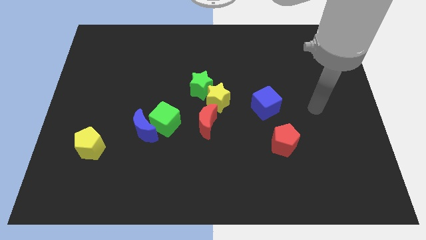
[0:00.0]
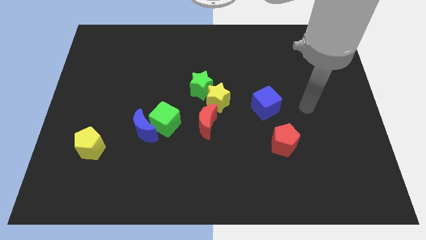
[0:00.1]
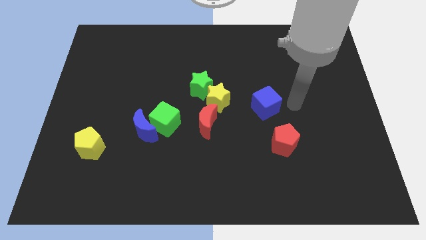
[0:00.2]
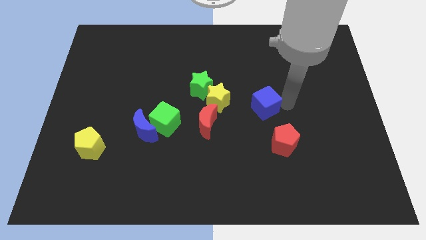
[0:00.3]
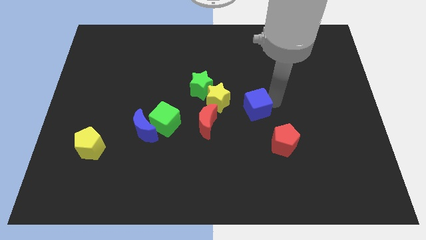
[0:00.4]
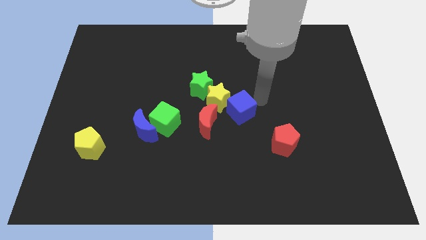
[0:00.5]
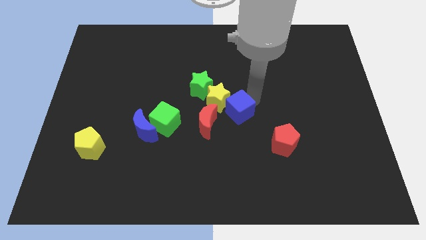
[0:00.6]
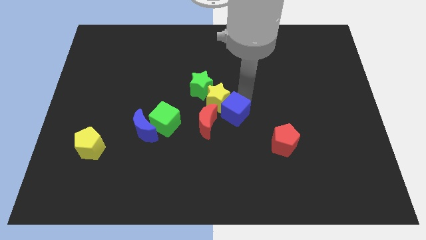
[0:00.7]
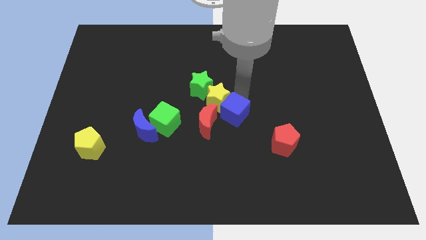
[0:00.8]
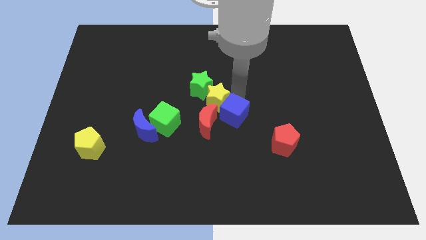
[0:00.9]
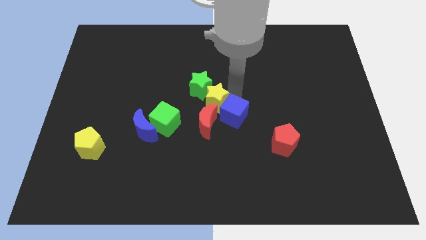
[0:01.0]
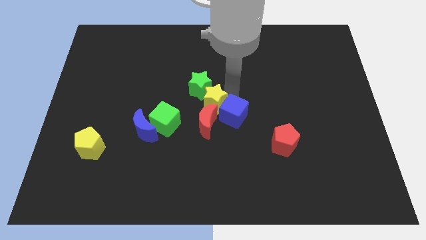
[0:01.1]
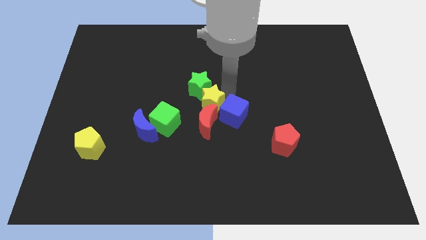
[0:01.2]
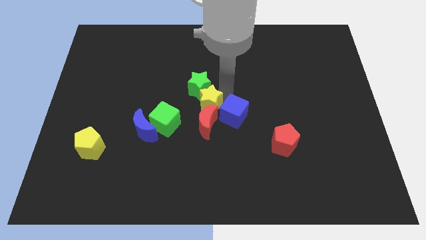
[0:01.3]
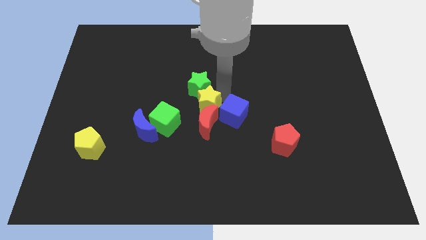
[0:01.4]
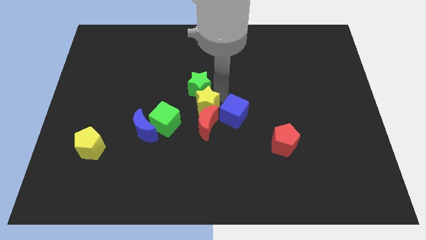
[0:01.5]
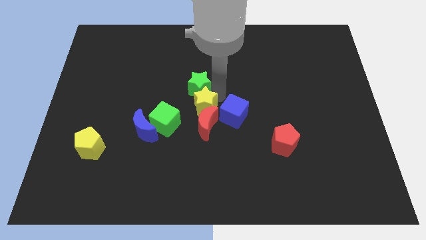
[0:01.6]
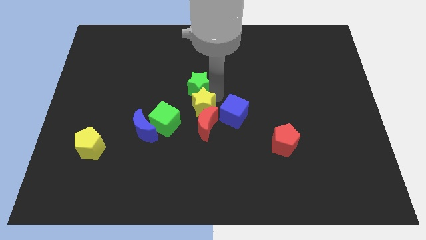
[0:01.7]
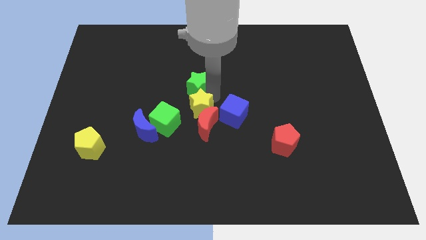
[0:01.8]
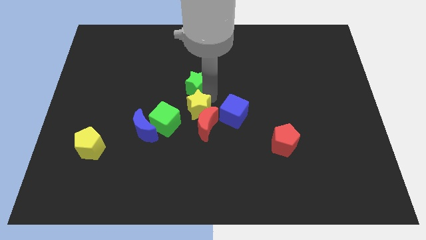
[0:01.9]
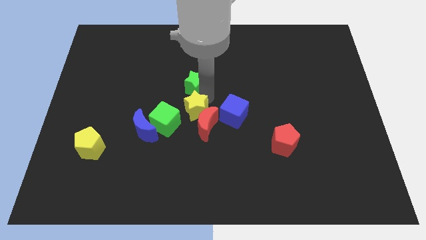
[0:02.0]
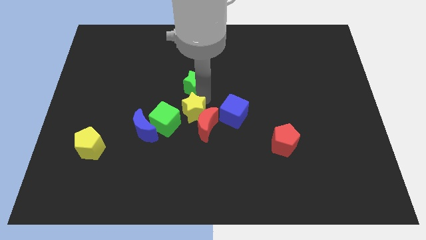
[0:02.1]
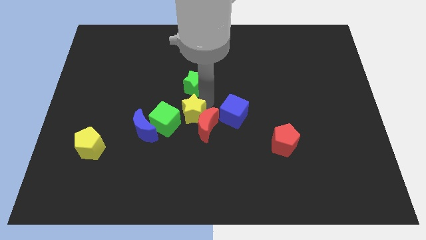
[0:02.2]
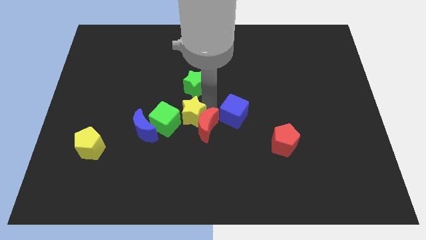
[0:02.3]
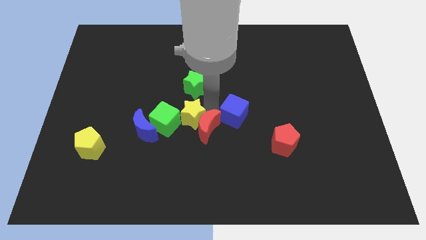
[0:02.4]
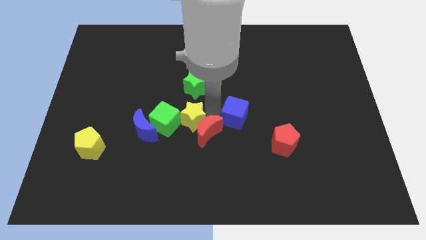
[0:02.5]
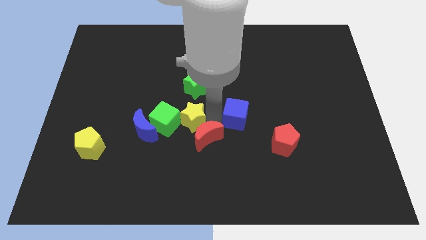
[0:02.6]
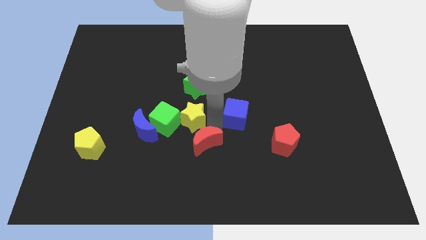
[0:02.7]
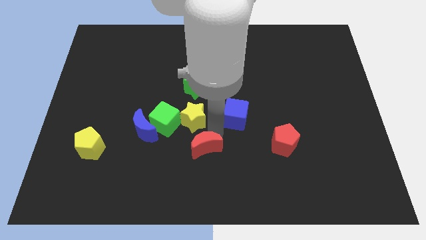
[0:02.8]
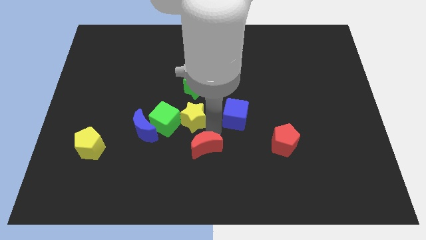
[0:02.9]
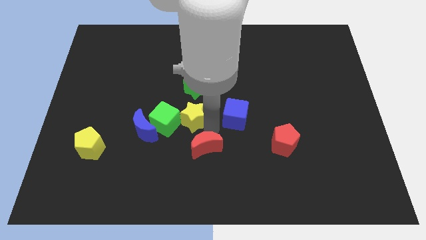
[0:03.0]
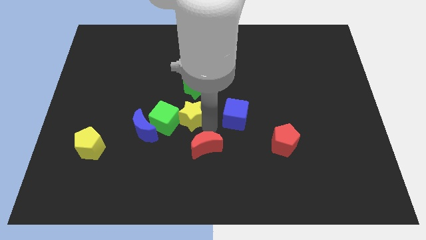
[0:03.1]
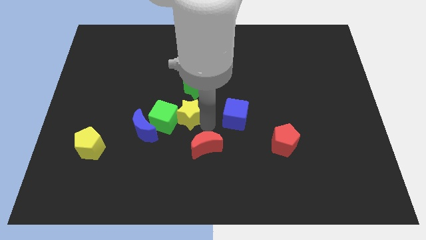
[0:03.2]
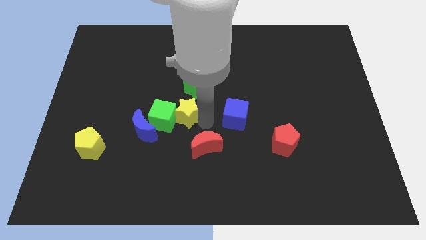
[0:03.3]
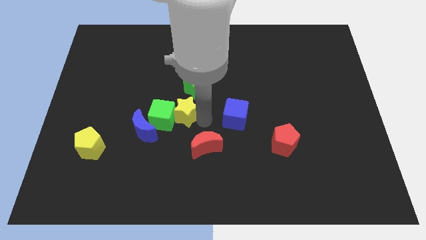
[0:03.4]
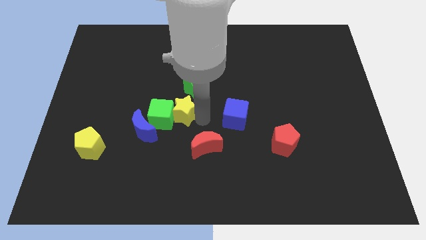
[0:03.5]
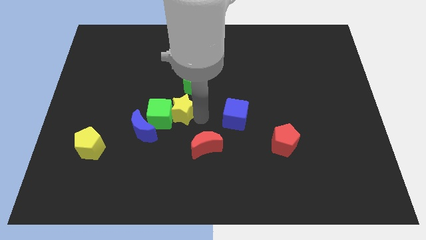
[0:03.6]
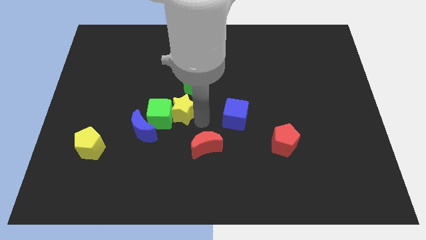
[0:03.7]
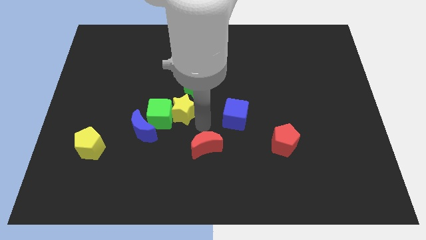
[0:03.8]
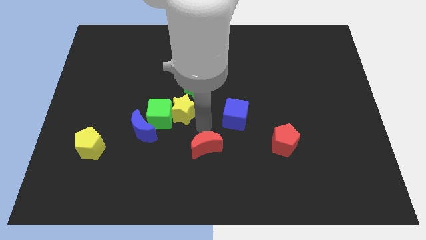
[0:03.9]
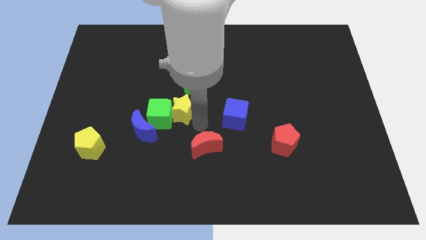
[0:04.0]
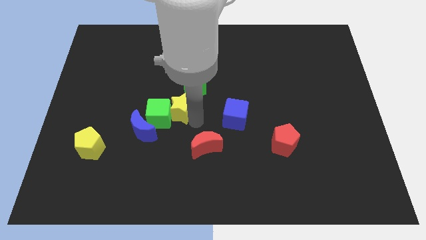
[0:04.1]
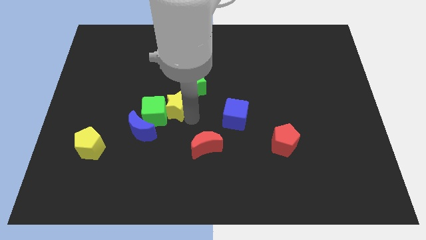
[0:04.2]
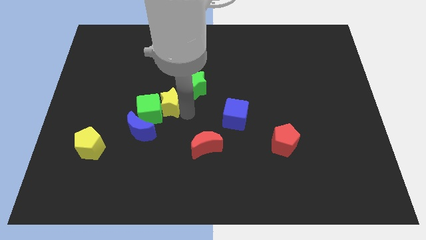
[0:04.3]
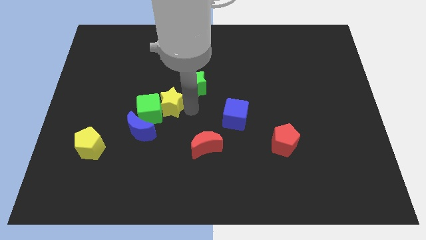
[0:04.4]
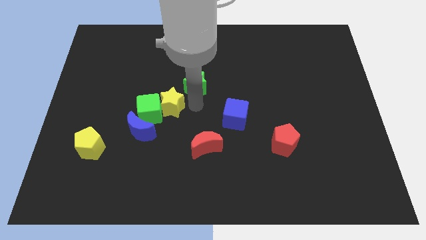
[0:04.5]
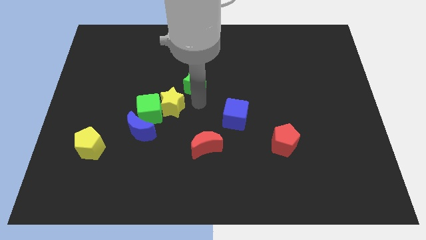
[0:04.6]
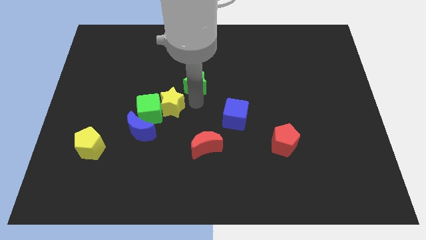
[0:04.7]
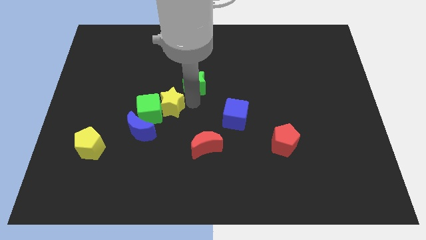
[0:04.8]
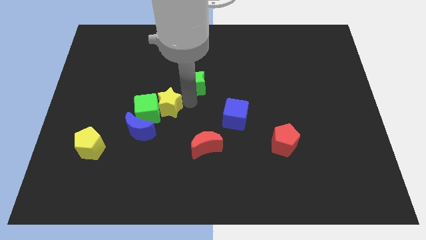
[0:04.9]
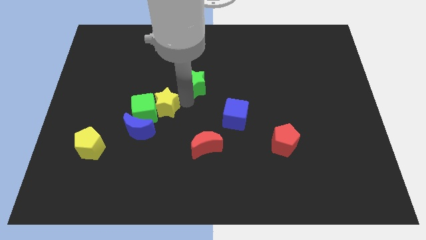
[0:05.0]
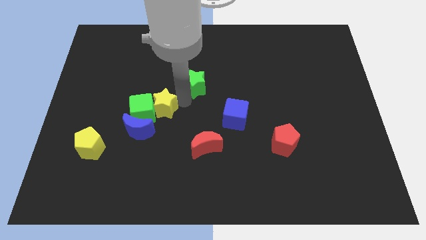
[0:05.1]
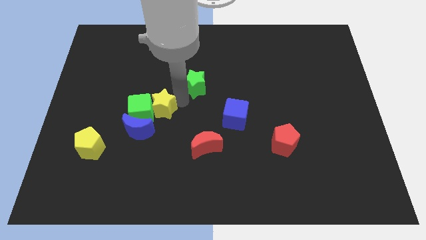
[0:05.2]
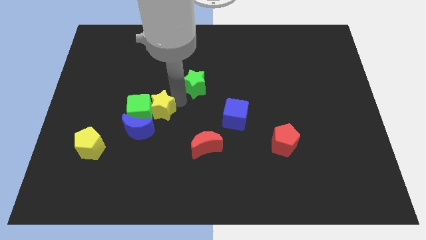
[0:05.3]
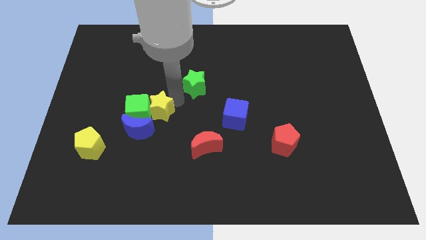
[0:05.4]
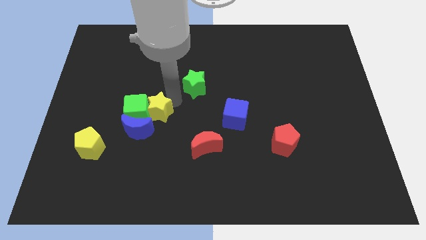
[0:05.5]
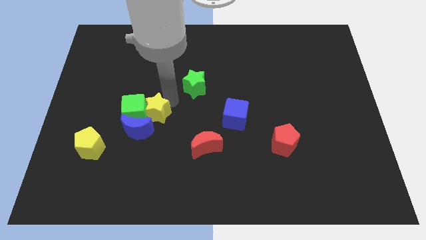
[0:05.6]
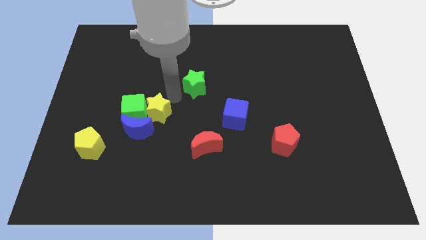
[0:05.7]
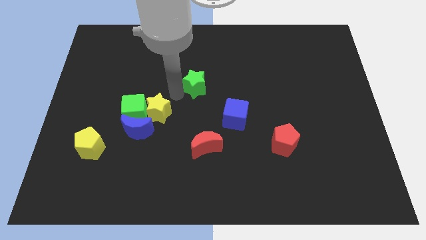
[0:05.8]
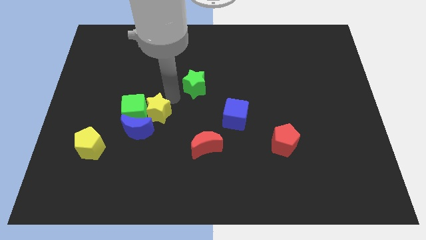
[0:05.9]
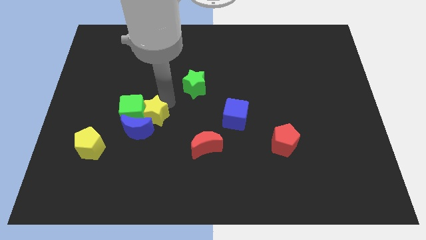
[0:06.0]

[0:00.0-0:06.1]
move the yellow star next to the blue moon
